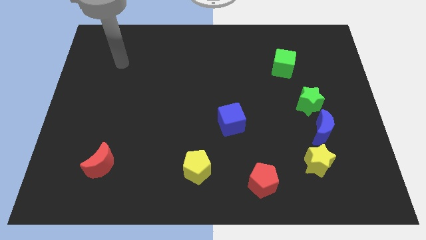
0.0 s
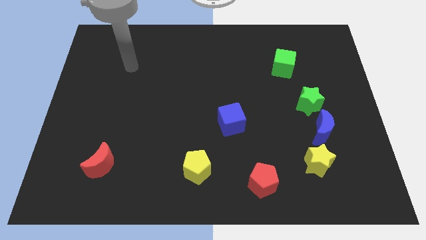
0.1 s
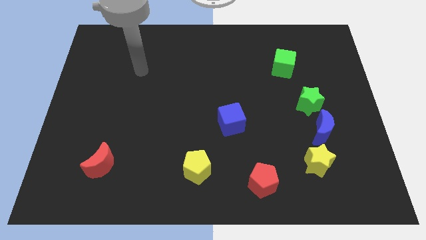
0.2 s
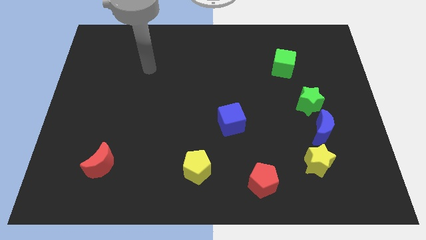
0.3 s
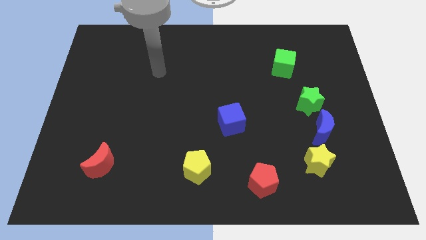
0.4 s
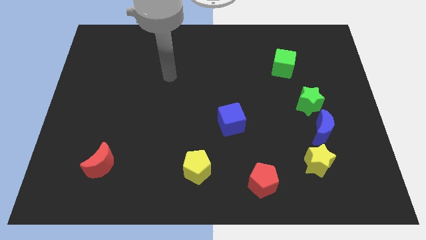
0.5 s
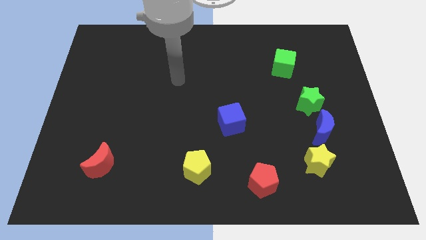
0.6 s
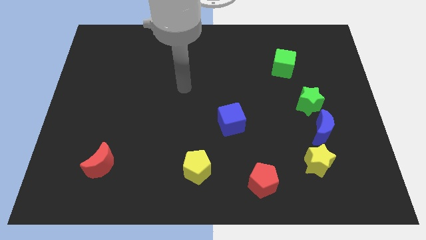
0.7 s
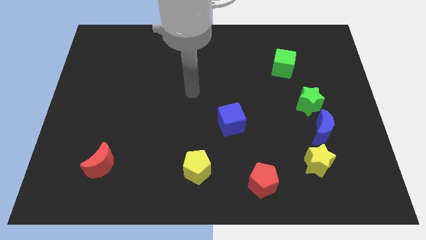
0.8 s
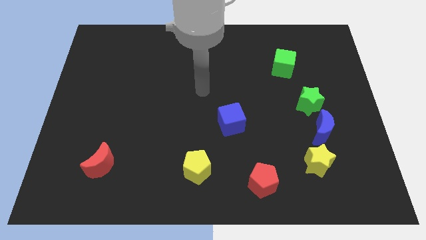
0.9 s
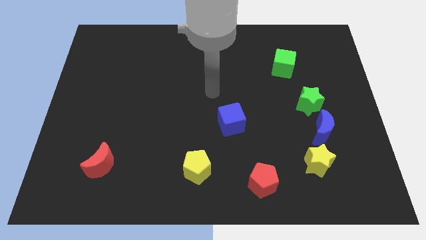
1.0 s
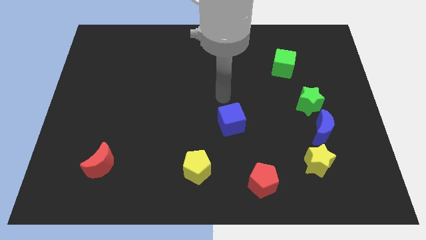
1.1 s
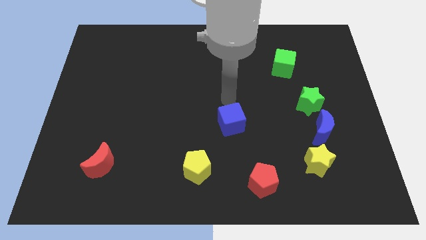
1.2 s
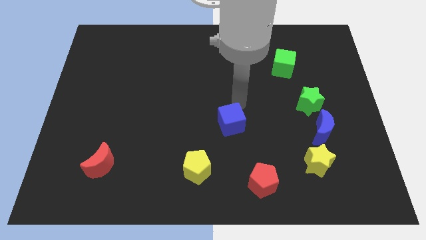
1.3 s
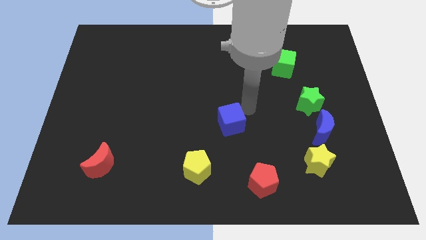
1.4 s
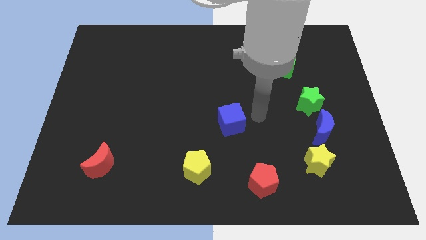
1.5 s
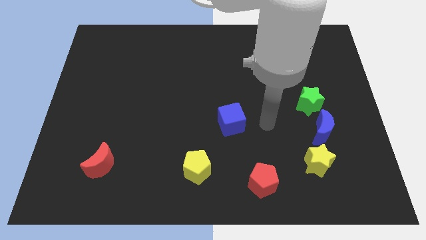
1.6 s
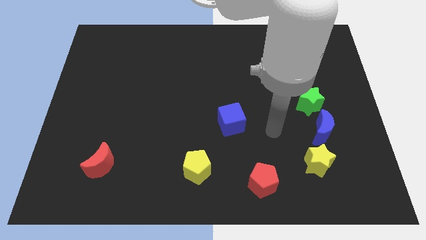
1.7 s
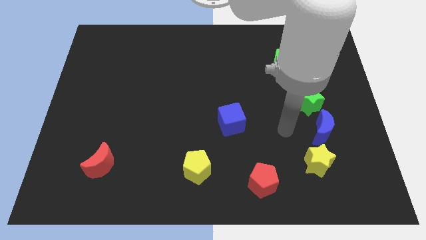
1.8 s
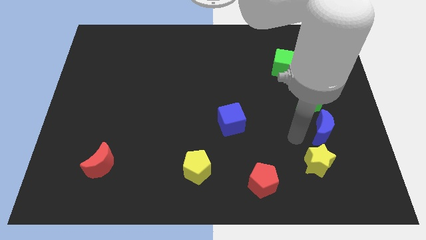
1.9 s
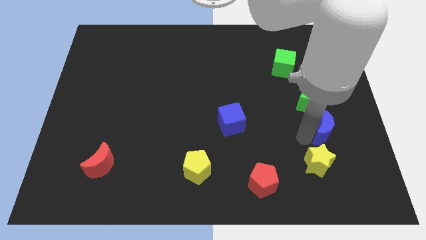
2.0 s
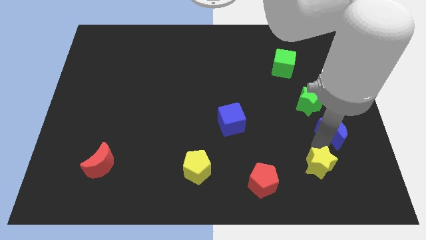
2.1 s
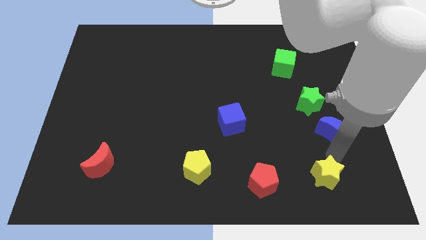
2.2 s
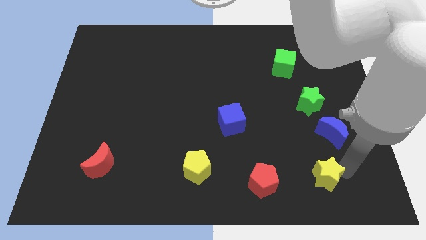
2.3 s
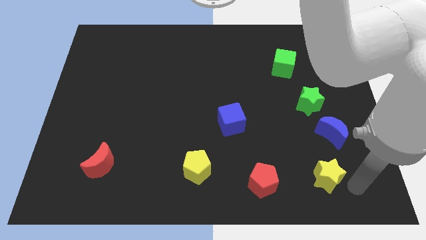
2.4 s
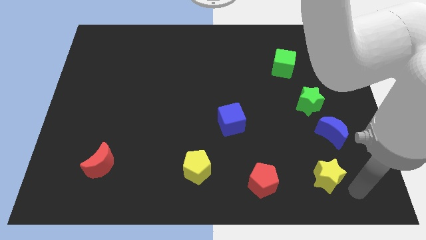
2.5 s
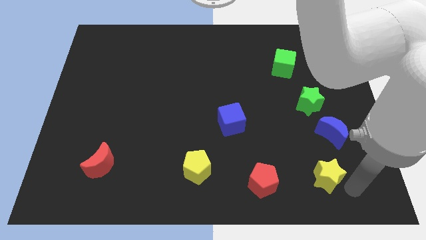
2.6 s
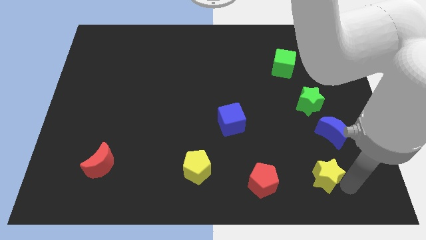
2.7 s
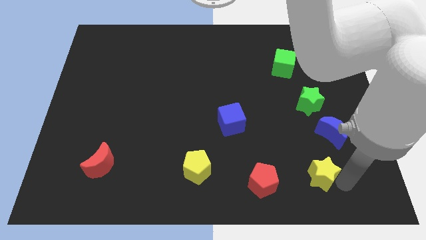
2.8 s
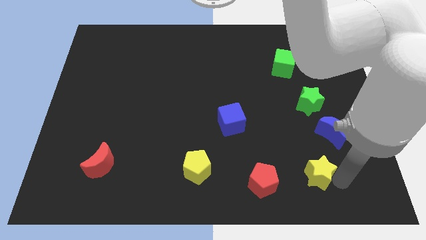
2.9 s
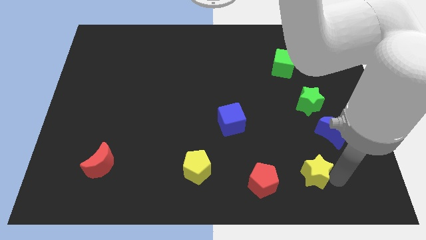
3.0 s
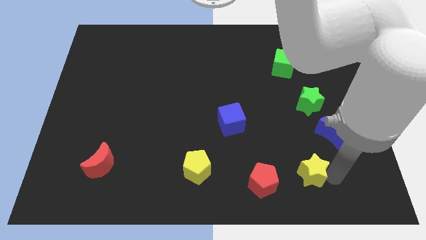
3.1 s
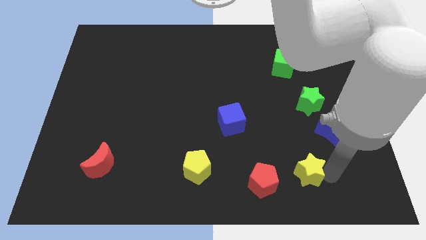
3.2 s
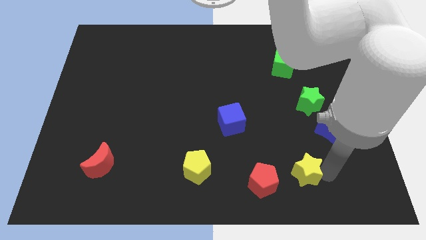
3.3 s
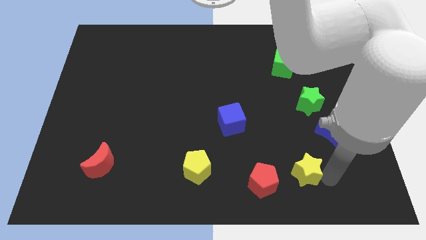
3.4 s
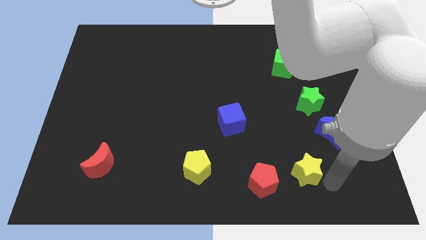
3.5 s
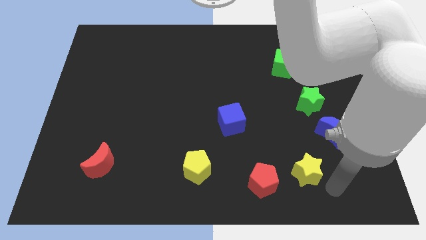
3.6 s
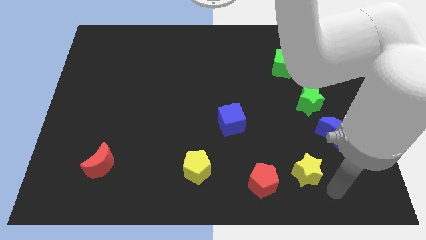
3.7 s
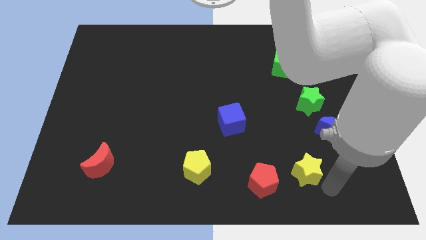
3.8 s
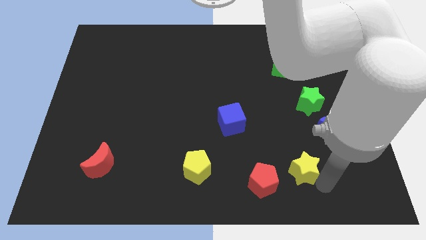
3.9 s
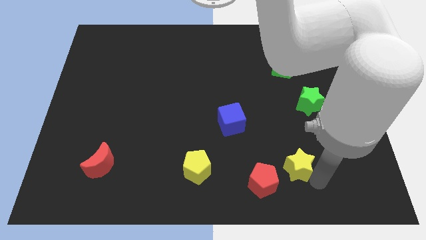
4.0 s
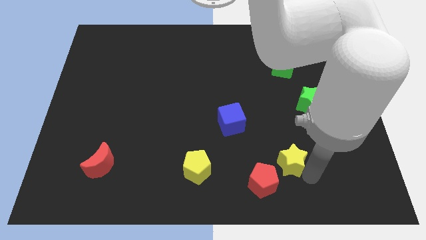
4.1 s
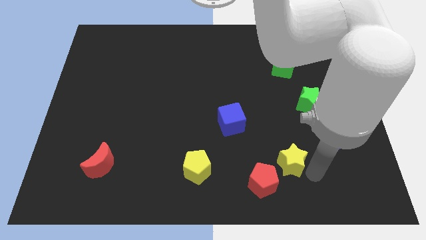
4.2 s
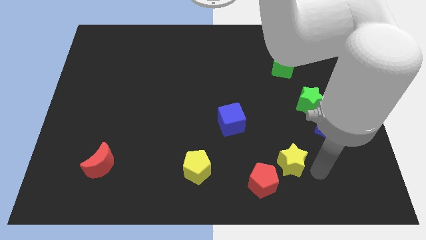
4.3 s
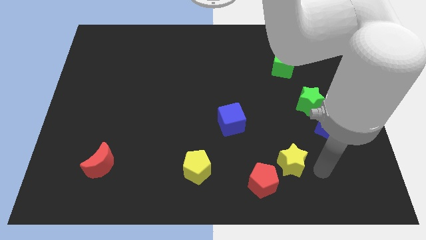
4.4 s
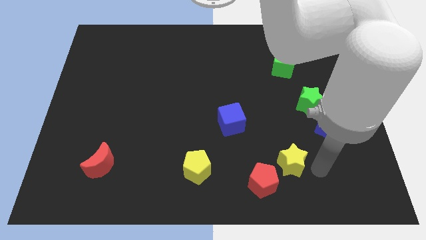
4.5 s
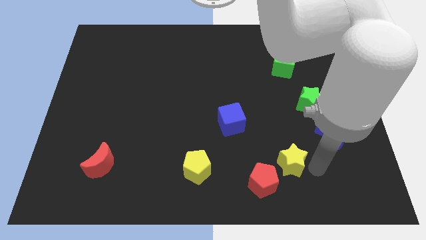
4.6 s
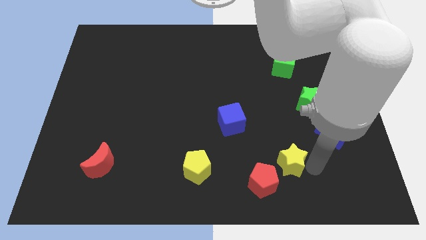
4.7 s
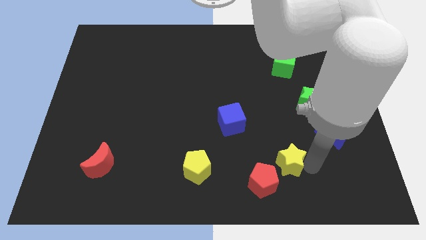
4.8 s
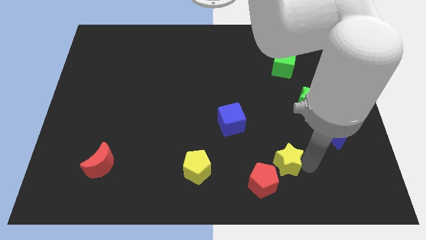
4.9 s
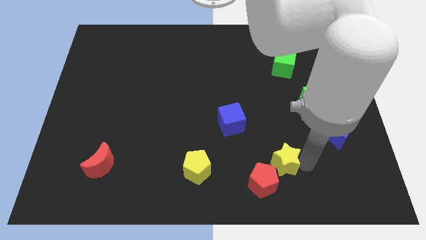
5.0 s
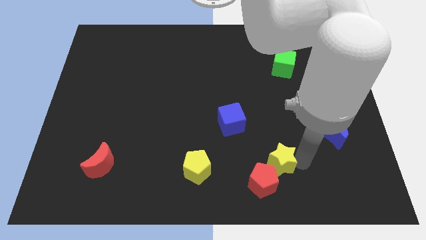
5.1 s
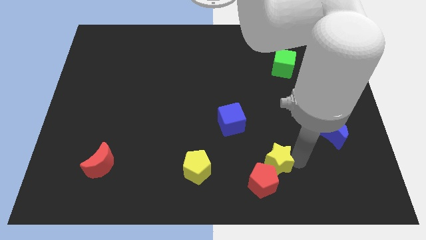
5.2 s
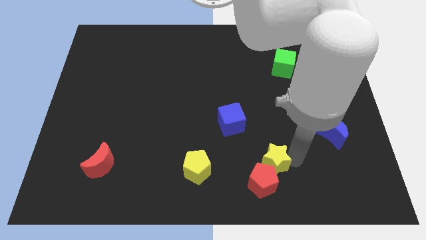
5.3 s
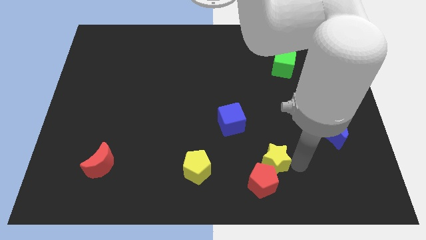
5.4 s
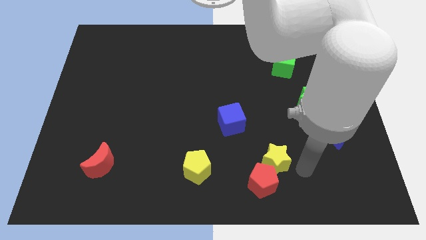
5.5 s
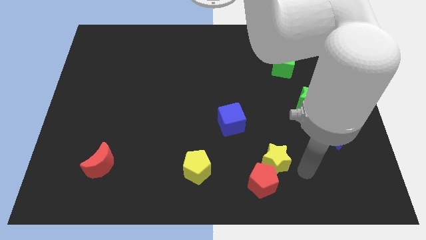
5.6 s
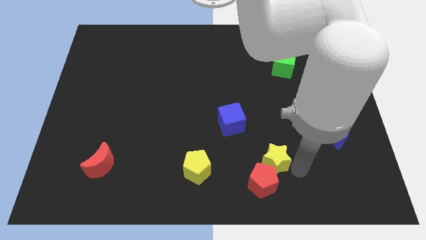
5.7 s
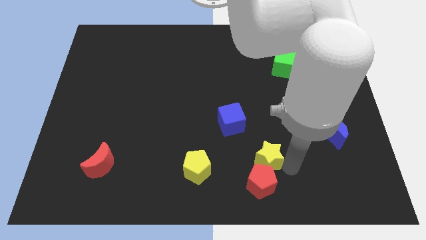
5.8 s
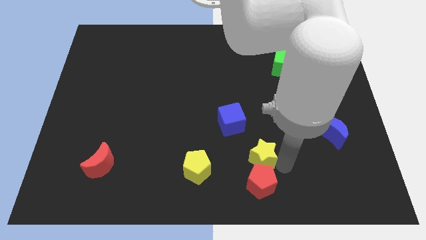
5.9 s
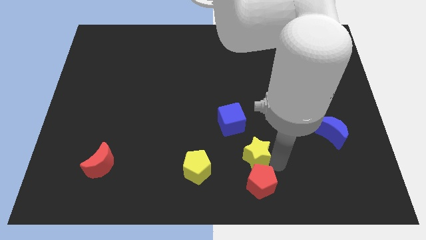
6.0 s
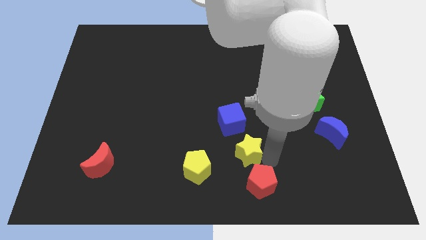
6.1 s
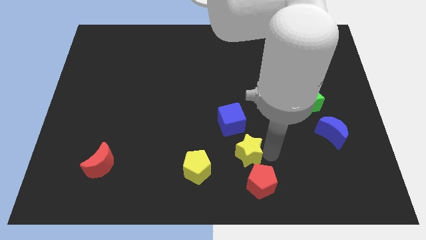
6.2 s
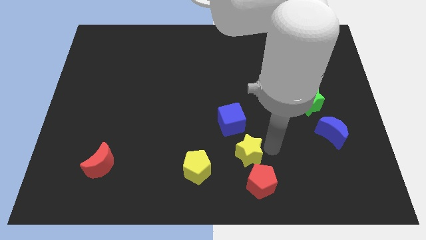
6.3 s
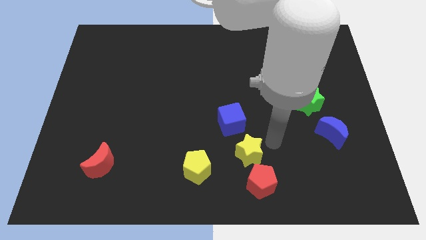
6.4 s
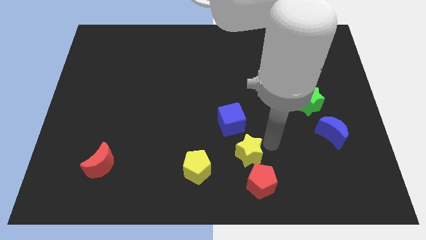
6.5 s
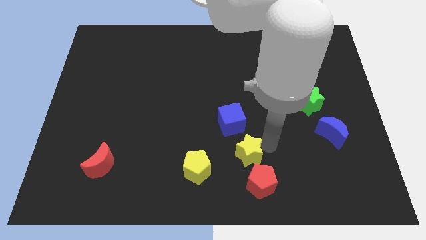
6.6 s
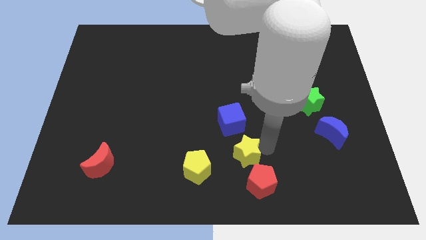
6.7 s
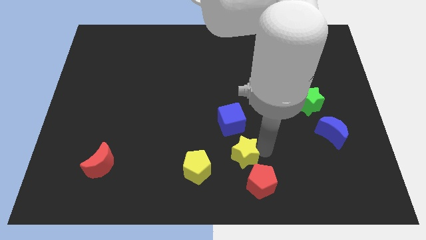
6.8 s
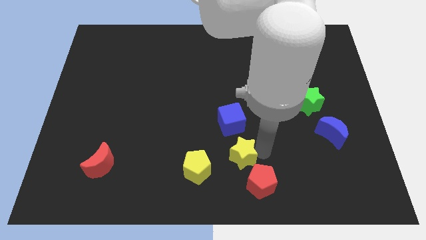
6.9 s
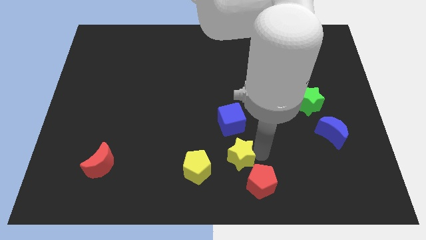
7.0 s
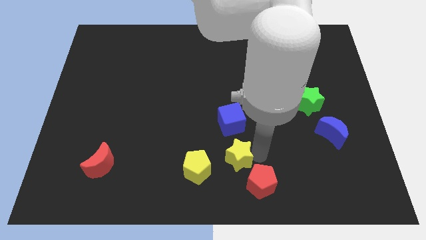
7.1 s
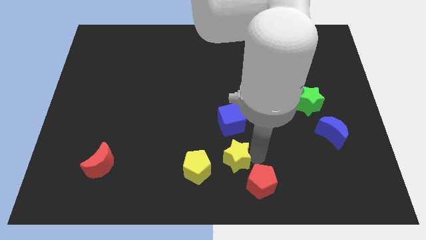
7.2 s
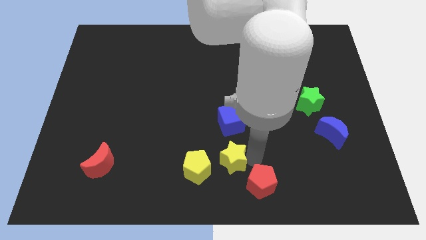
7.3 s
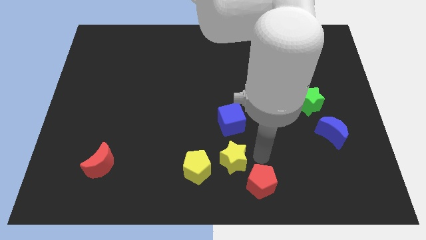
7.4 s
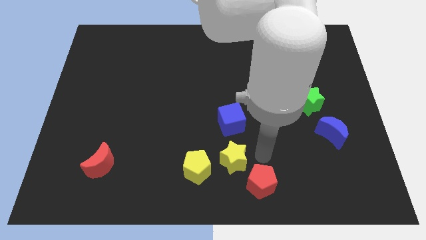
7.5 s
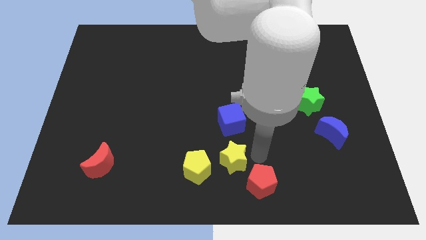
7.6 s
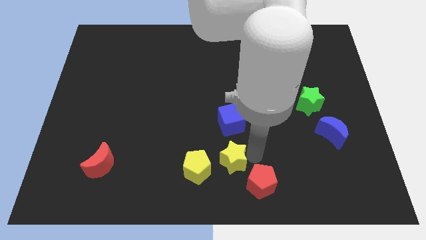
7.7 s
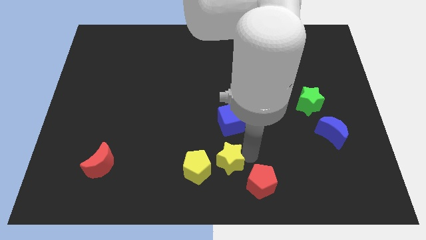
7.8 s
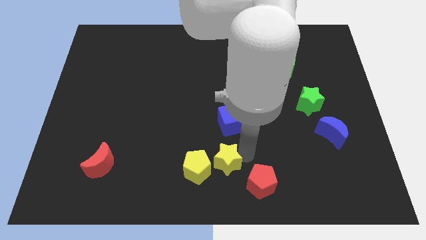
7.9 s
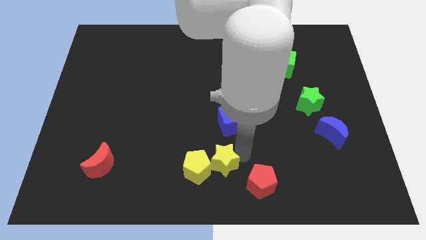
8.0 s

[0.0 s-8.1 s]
slide the yellow star close to the yellow pentagon
